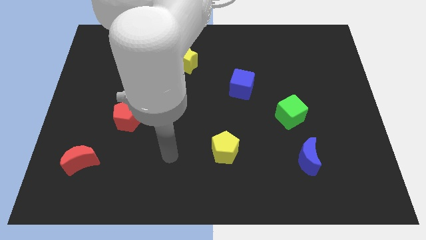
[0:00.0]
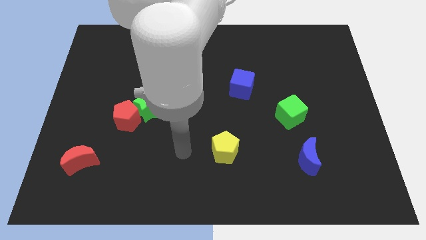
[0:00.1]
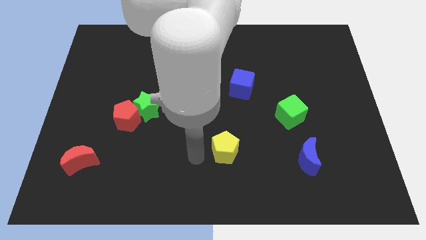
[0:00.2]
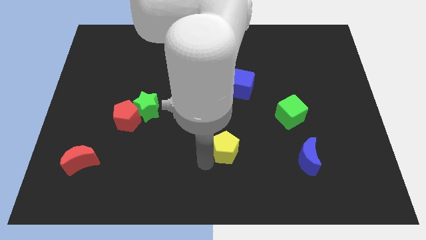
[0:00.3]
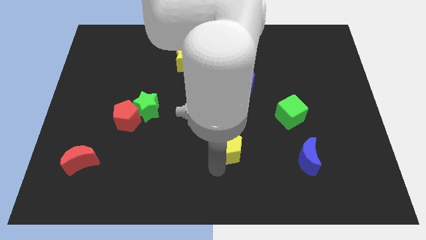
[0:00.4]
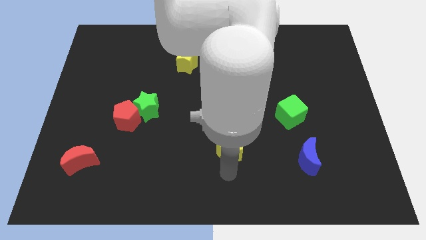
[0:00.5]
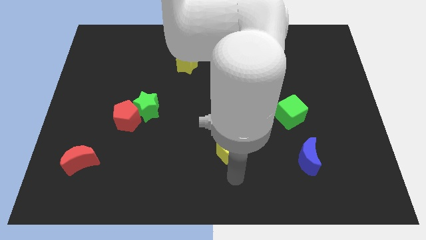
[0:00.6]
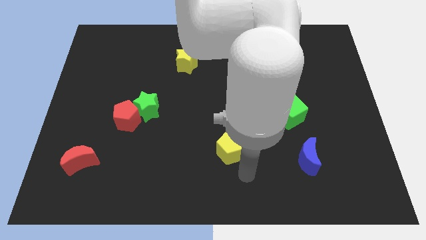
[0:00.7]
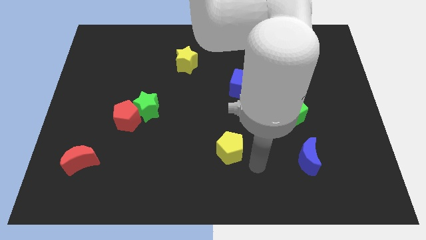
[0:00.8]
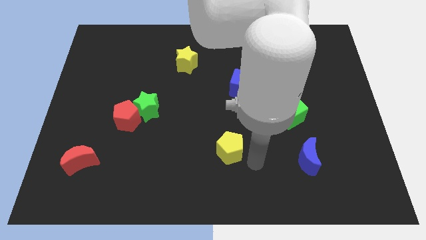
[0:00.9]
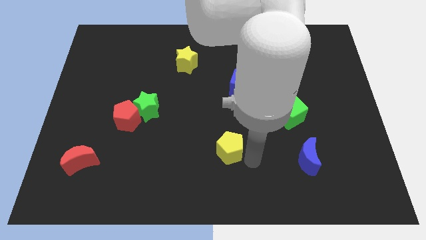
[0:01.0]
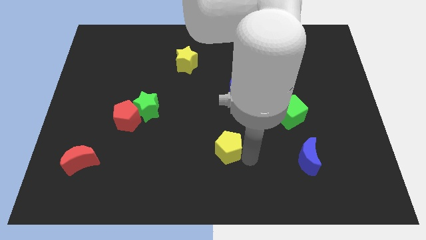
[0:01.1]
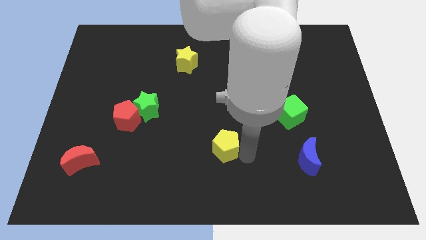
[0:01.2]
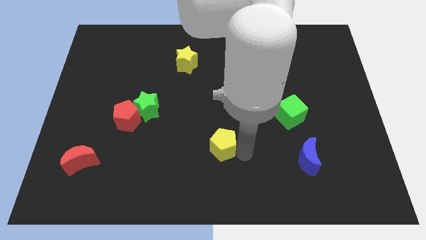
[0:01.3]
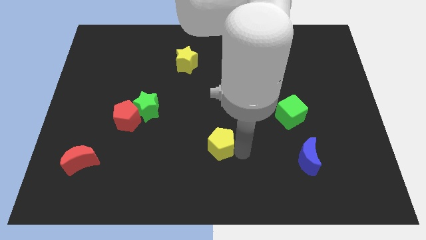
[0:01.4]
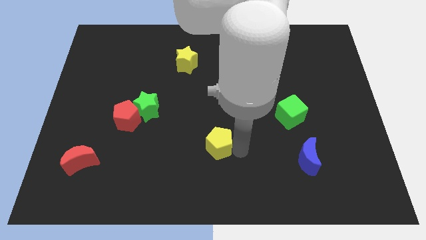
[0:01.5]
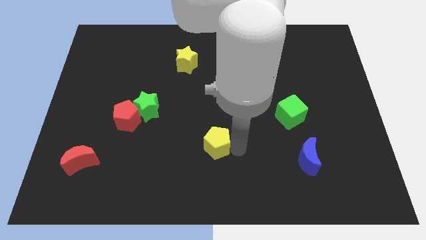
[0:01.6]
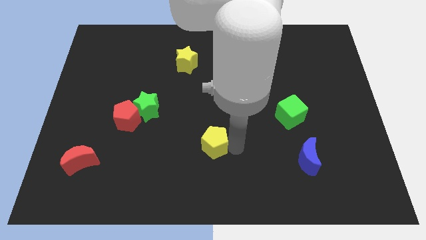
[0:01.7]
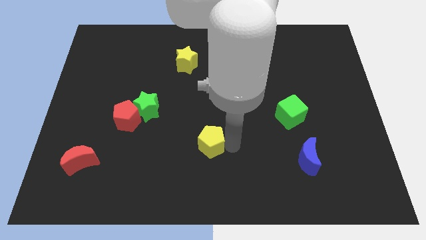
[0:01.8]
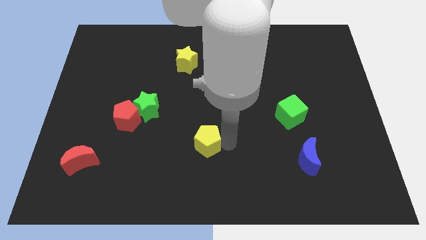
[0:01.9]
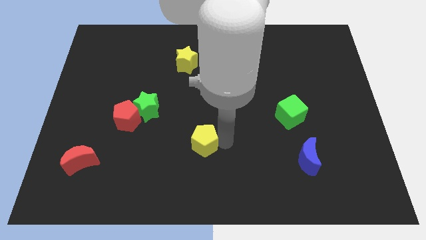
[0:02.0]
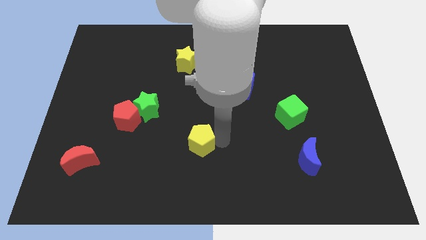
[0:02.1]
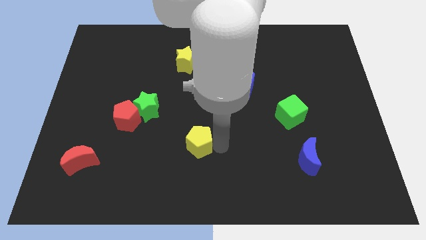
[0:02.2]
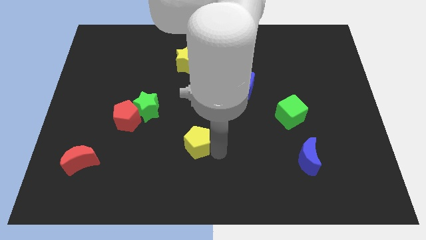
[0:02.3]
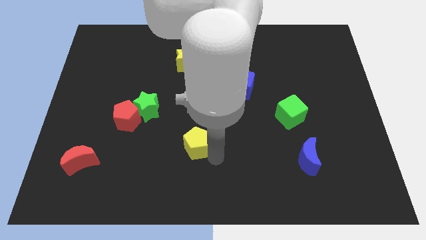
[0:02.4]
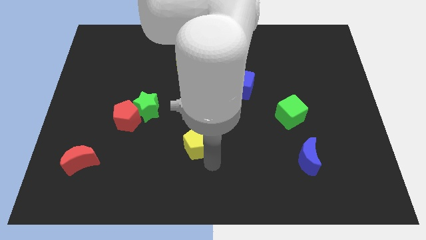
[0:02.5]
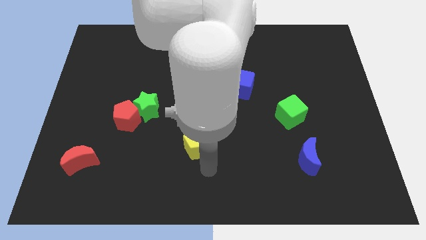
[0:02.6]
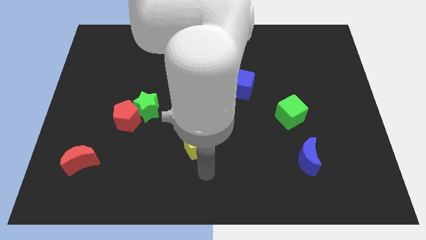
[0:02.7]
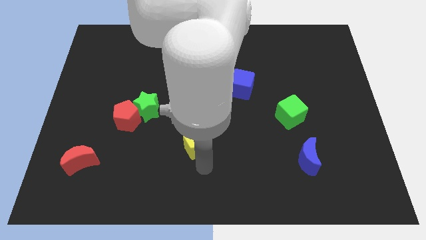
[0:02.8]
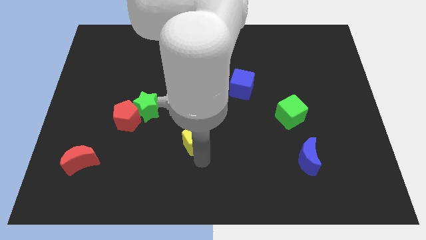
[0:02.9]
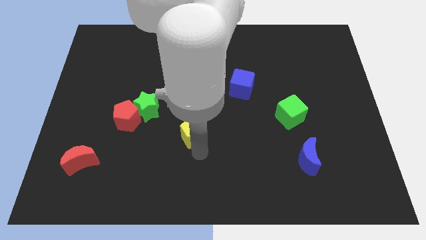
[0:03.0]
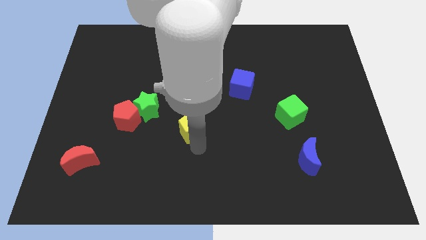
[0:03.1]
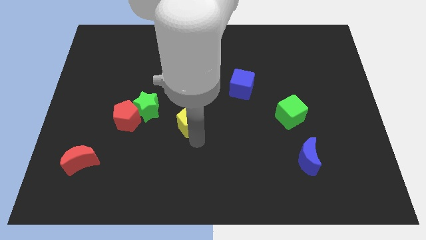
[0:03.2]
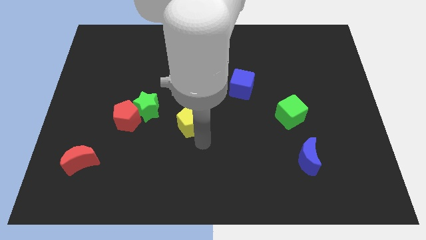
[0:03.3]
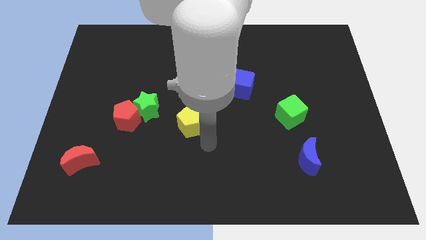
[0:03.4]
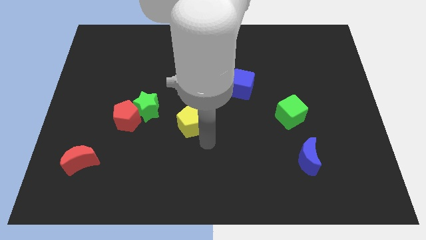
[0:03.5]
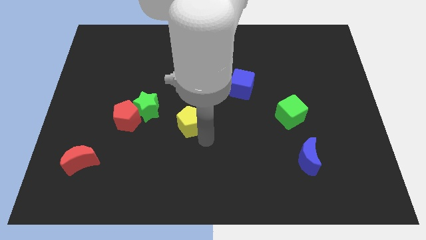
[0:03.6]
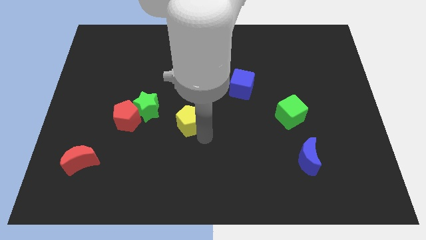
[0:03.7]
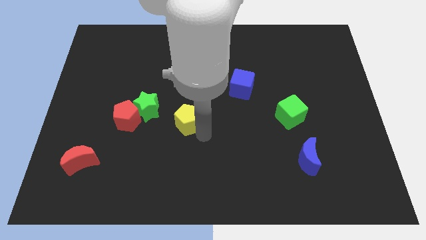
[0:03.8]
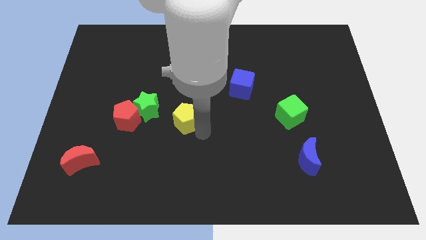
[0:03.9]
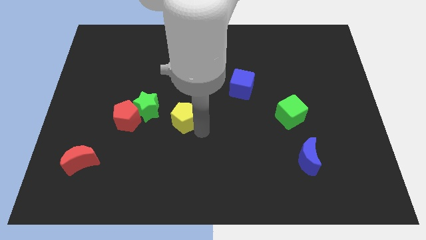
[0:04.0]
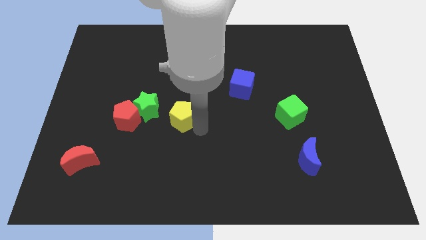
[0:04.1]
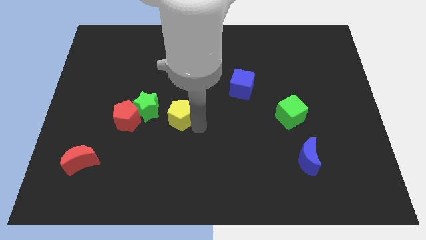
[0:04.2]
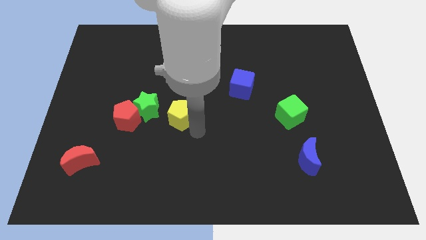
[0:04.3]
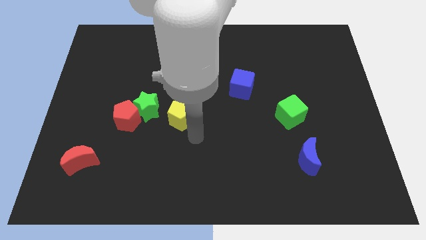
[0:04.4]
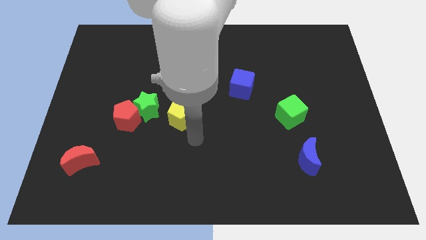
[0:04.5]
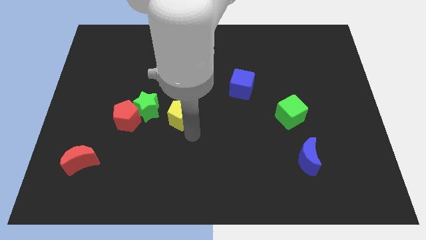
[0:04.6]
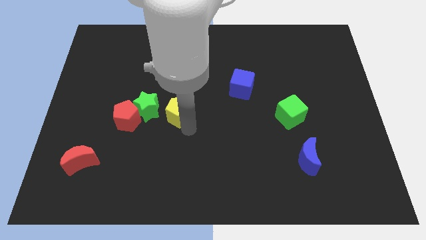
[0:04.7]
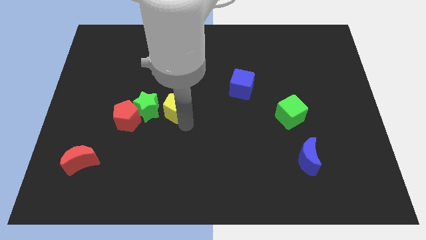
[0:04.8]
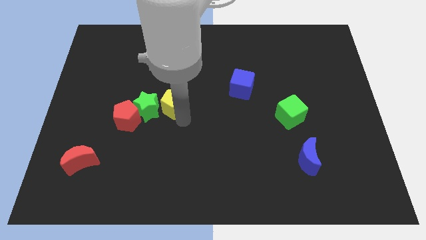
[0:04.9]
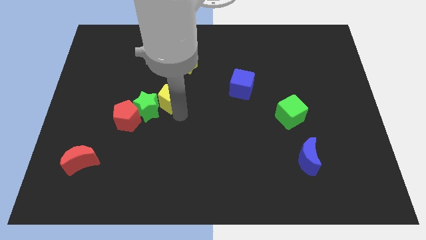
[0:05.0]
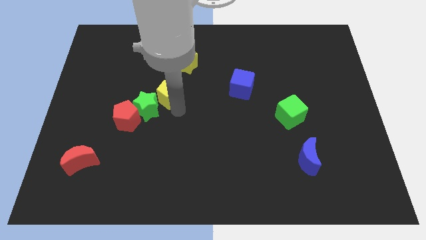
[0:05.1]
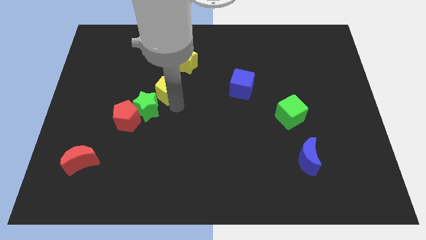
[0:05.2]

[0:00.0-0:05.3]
push the yellow pentagon to the top of the green star
